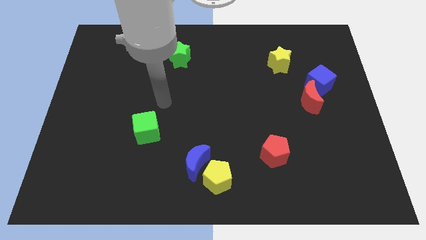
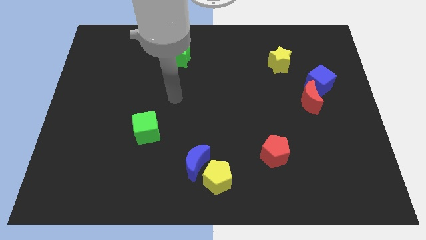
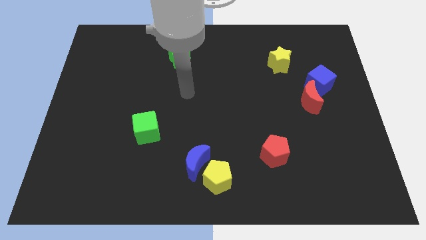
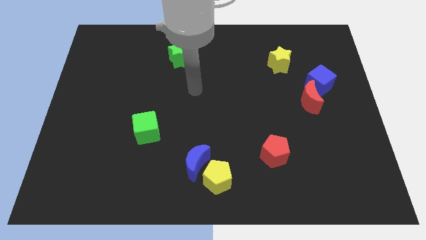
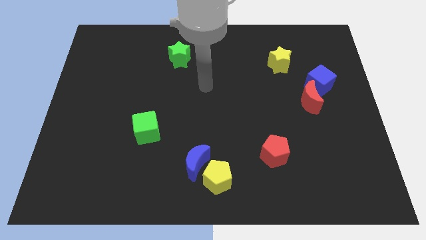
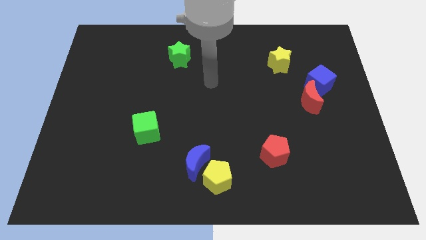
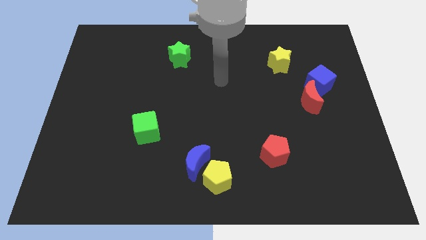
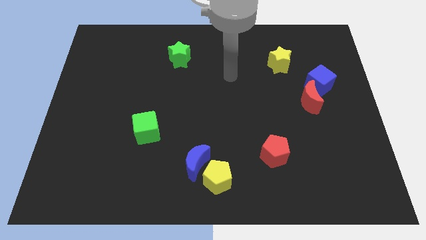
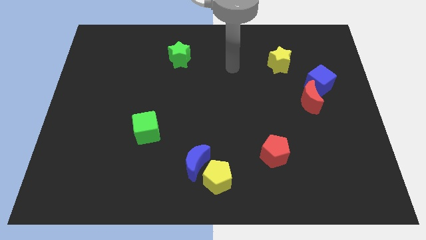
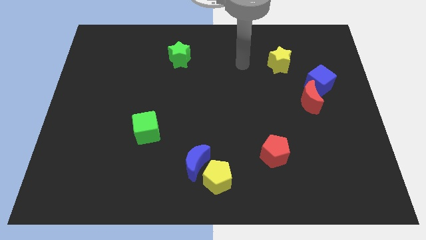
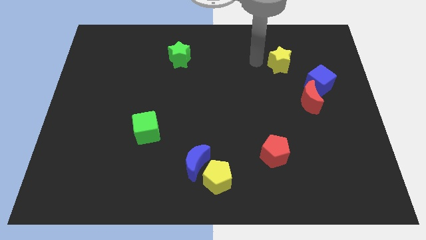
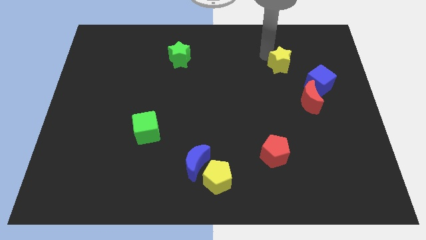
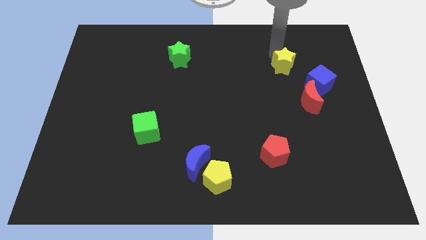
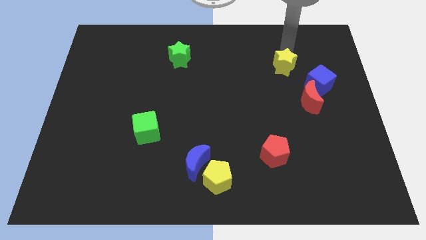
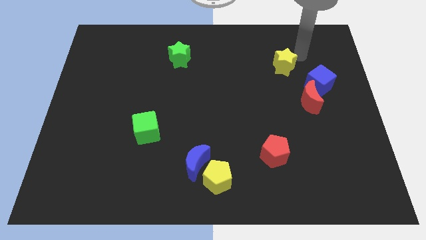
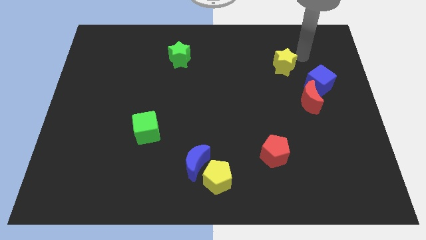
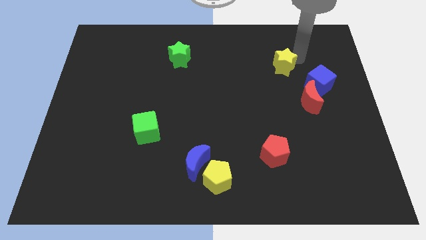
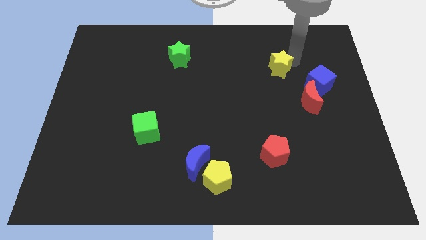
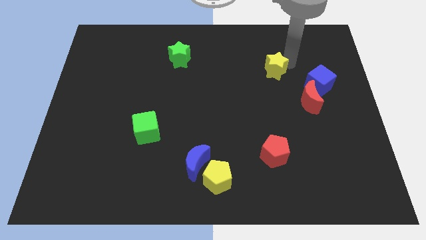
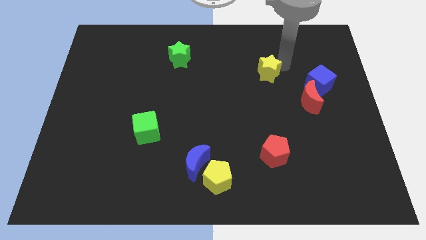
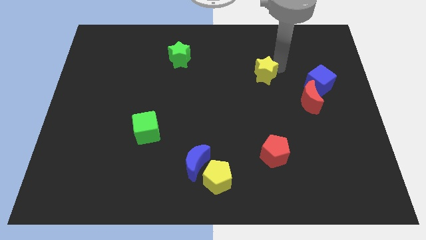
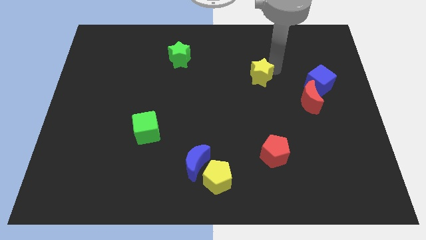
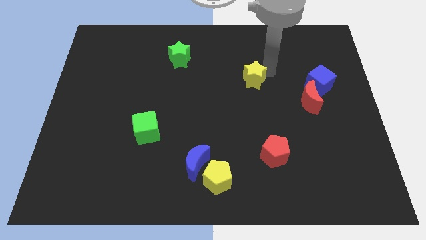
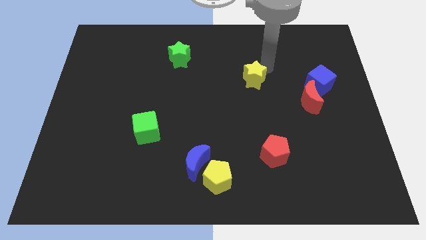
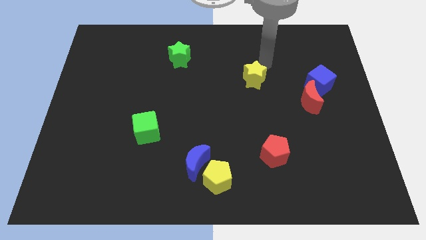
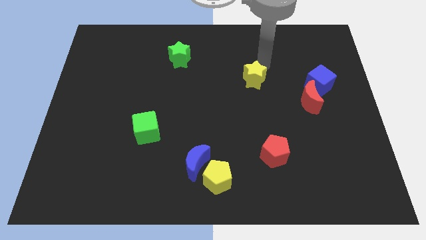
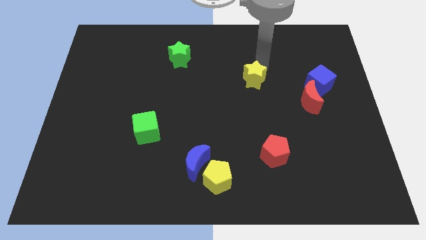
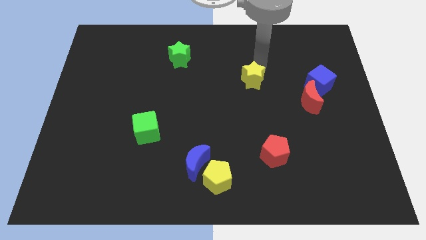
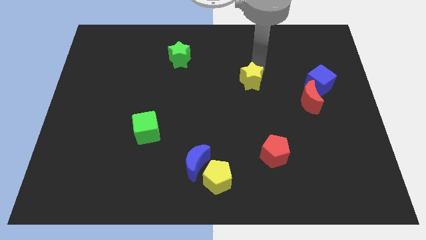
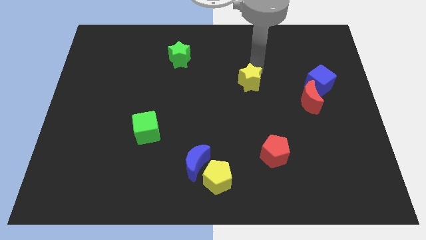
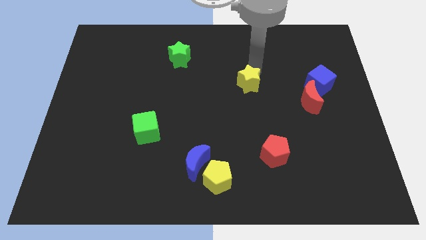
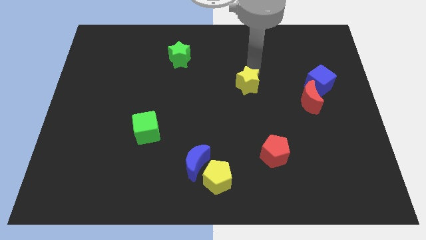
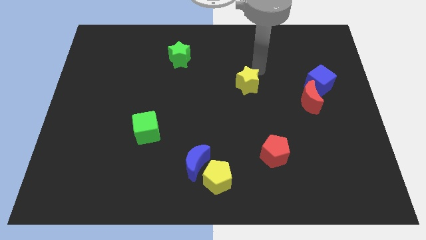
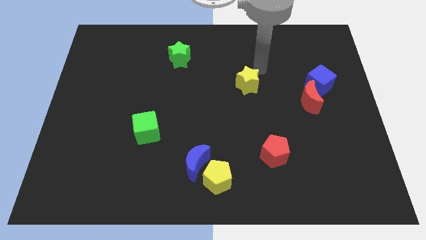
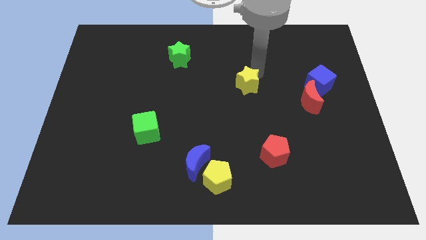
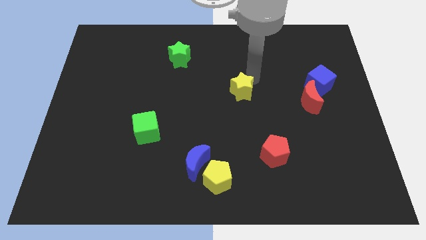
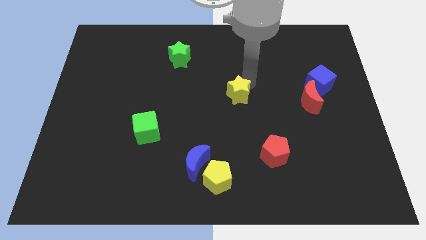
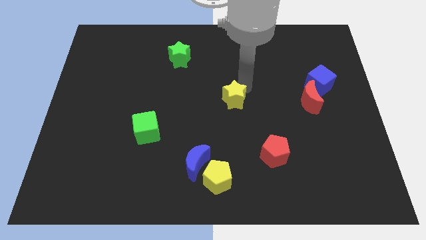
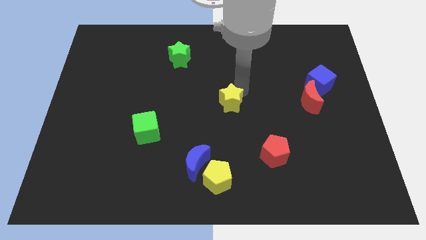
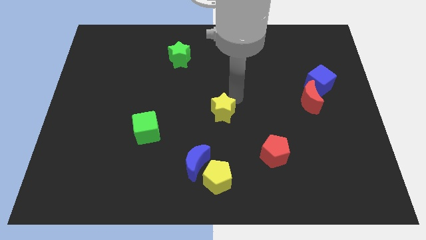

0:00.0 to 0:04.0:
slide the yellow star downwards and left

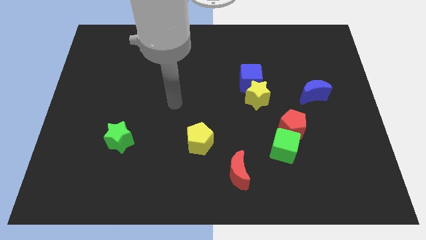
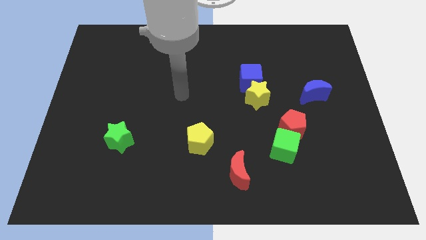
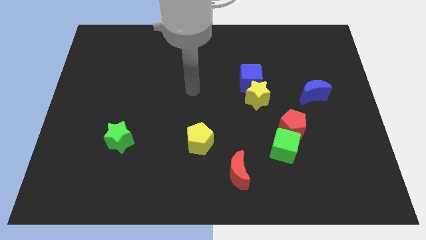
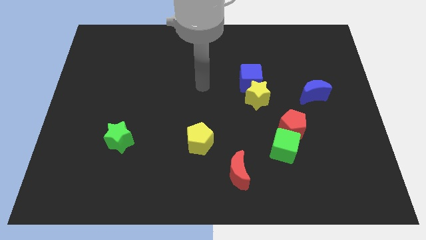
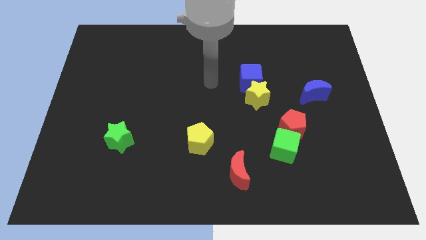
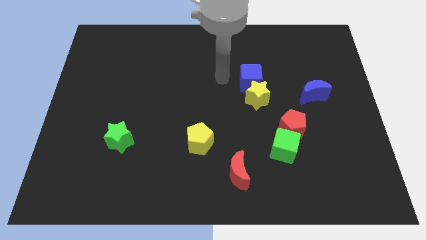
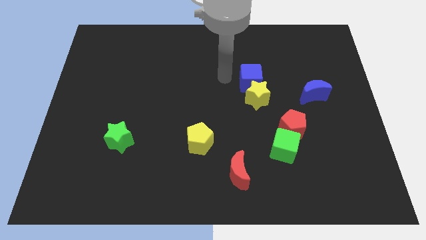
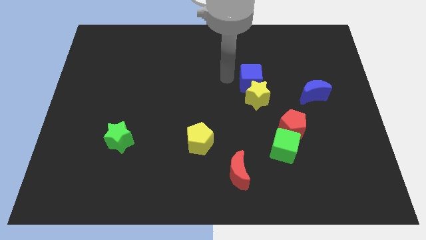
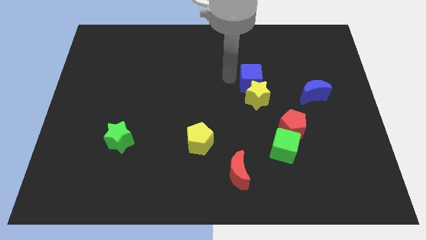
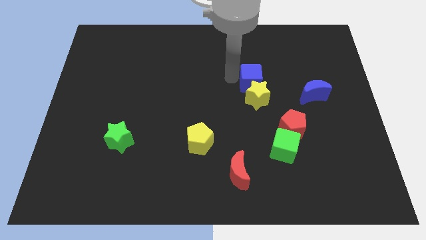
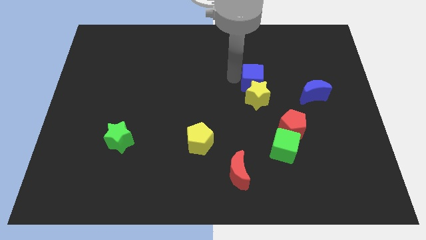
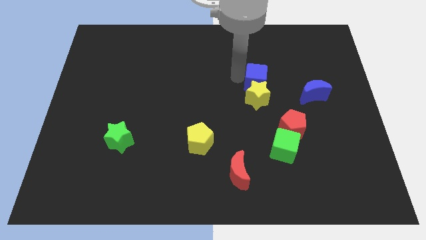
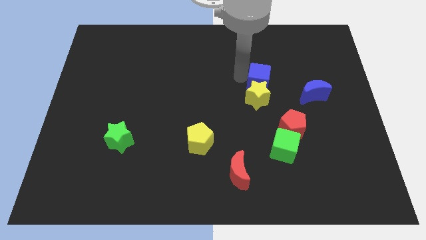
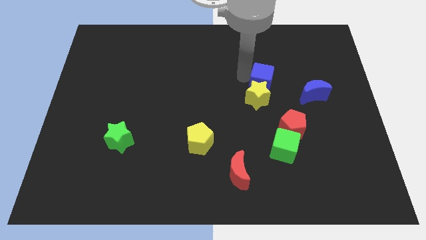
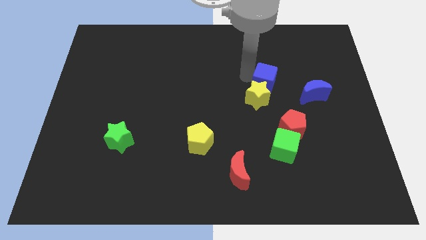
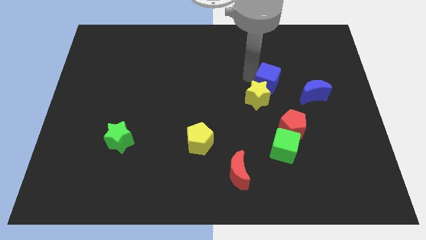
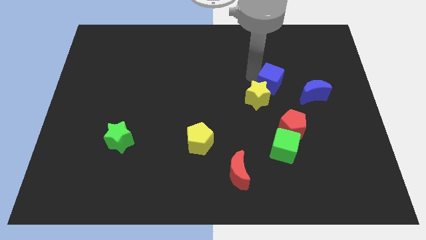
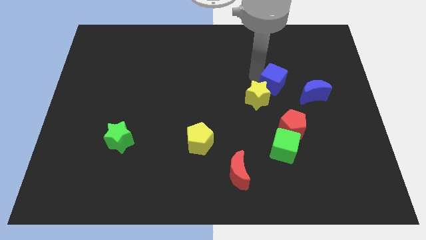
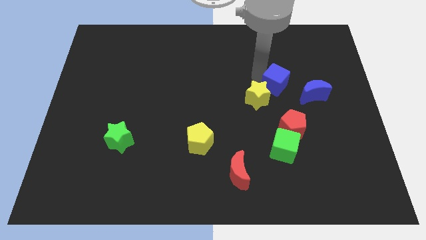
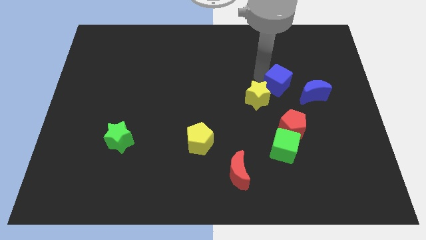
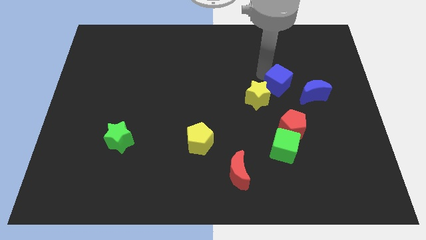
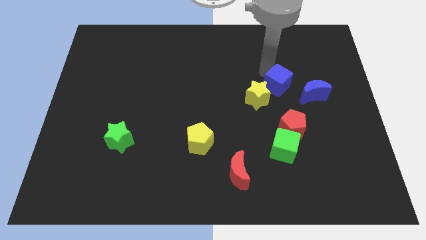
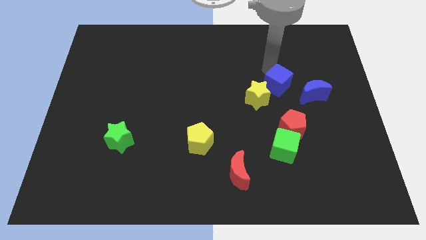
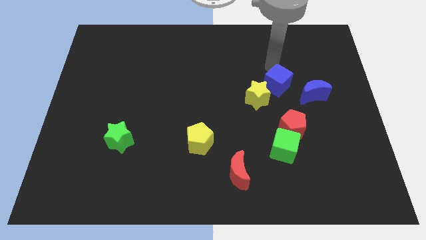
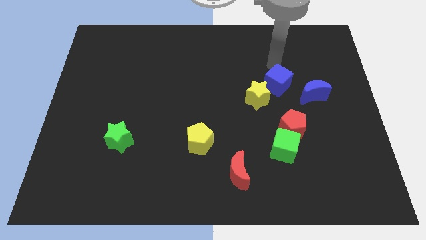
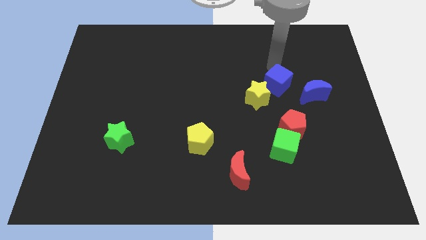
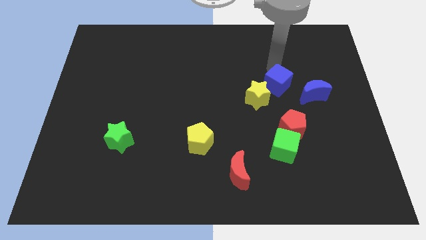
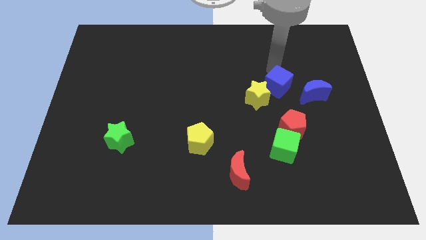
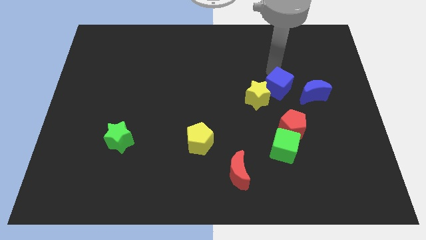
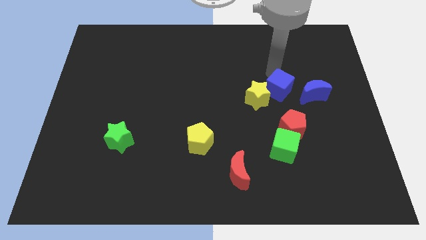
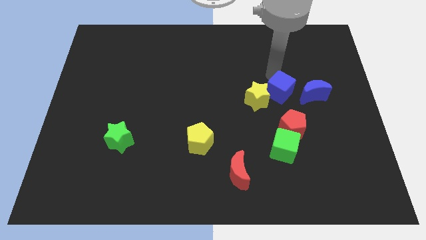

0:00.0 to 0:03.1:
slide the blue cube down and then right somewhat

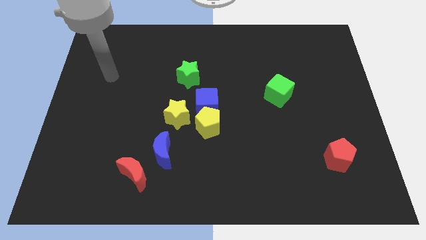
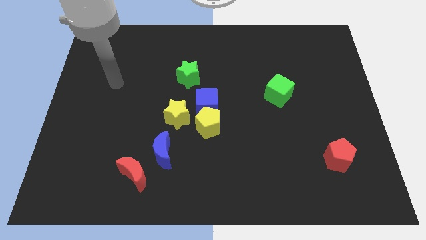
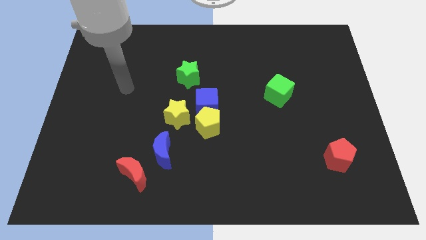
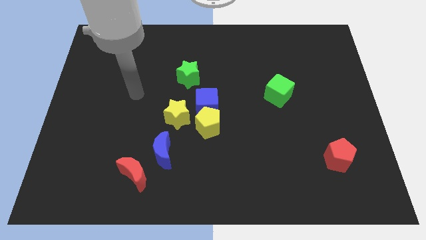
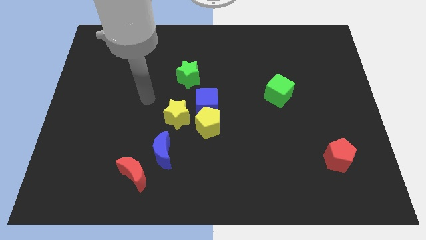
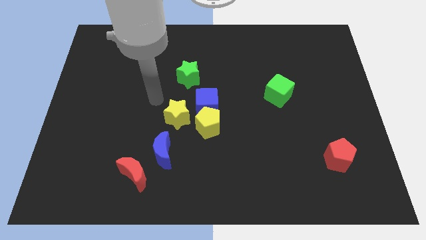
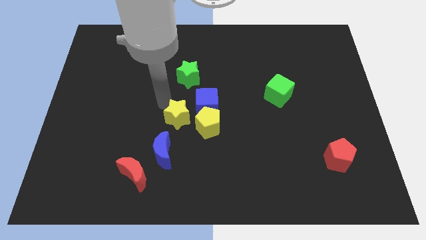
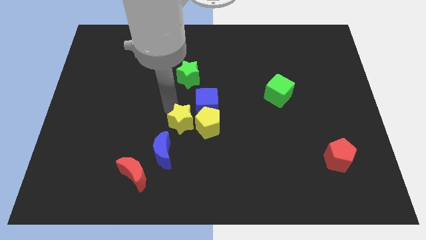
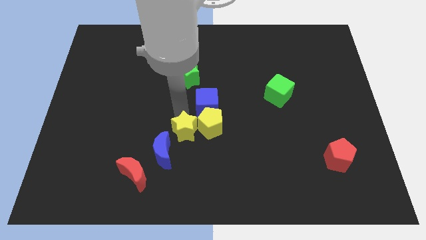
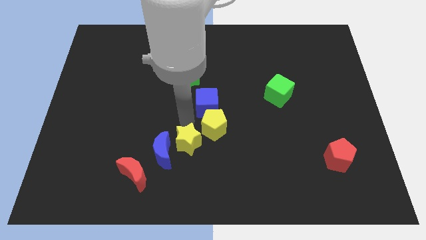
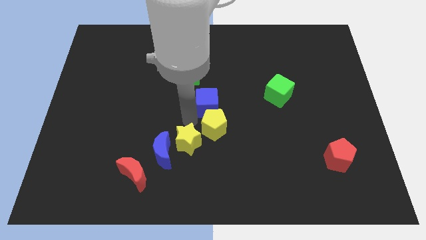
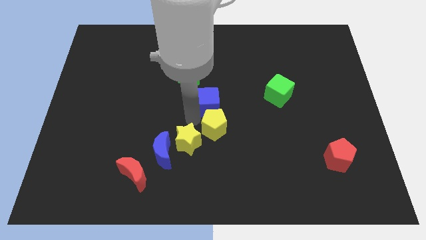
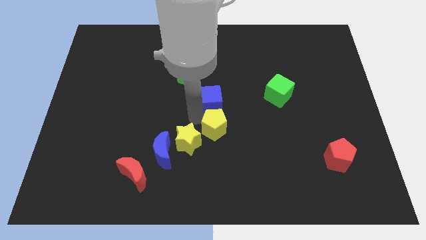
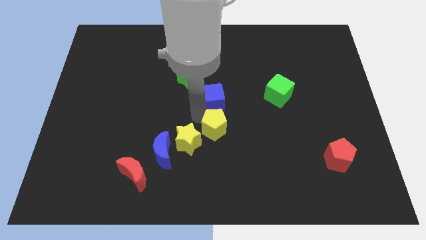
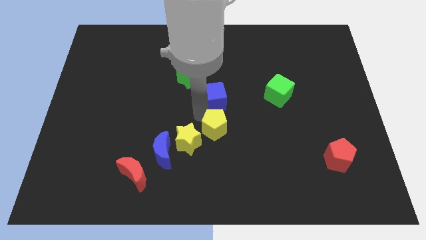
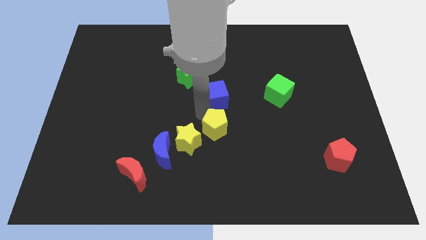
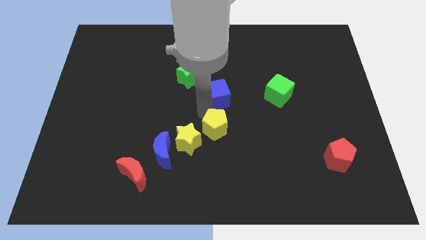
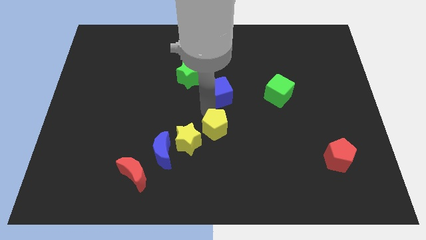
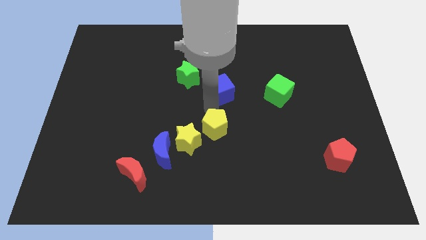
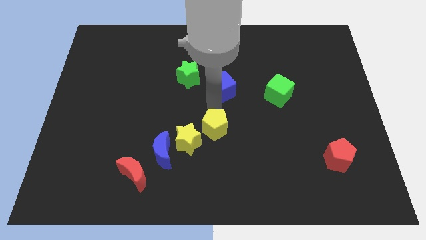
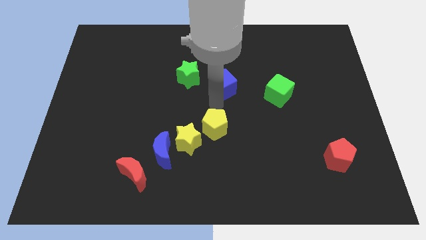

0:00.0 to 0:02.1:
move the blue cube upwards and then to the right a bit
